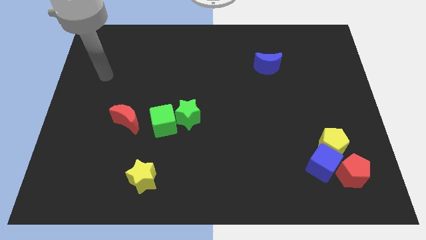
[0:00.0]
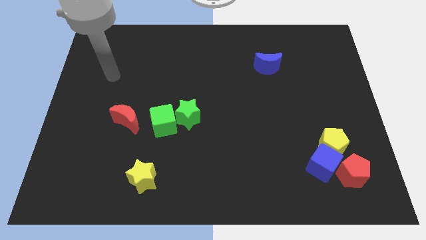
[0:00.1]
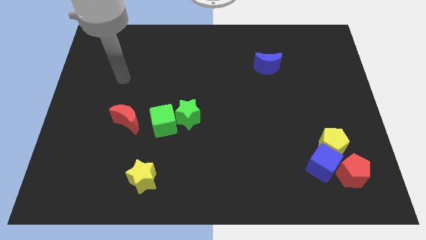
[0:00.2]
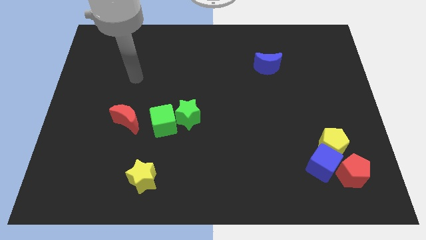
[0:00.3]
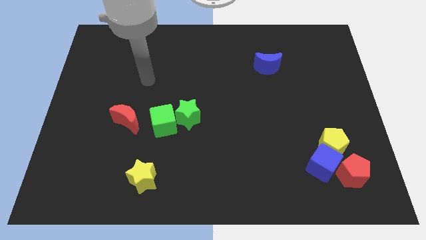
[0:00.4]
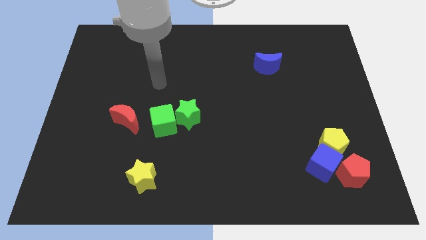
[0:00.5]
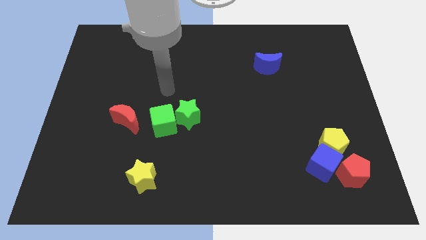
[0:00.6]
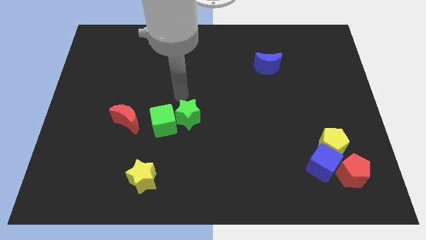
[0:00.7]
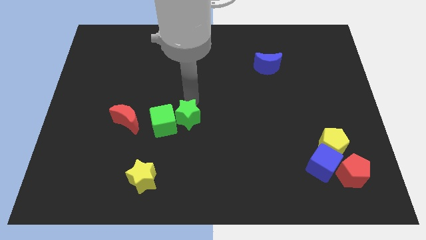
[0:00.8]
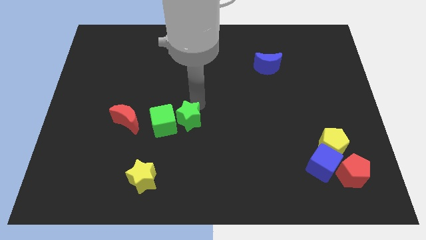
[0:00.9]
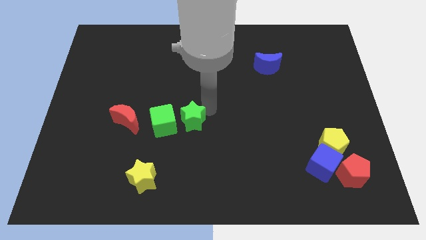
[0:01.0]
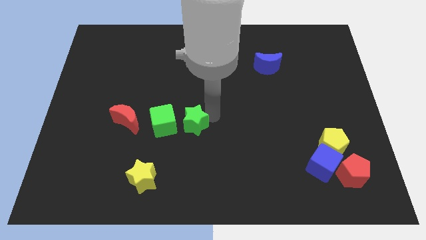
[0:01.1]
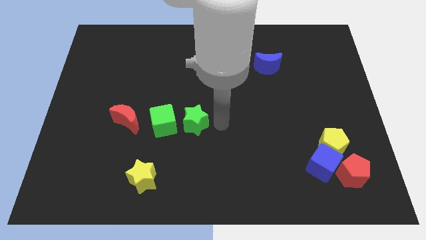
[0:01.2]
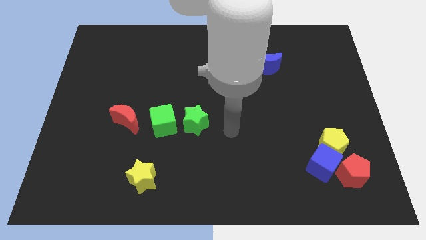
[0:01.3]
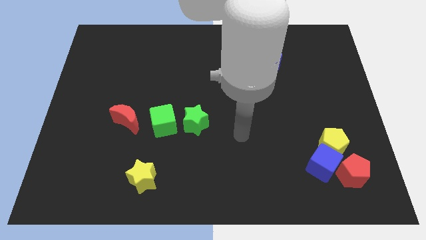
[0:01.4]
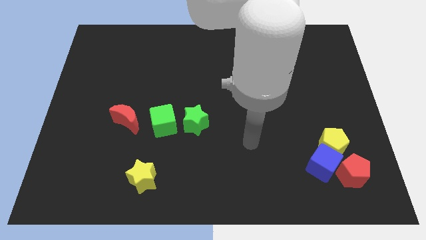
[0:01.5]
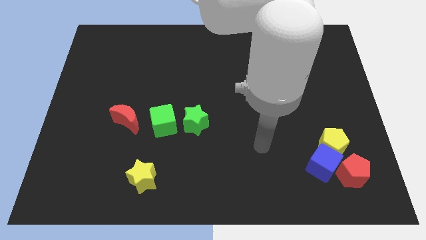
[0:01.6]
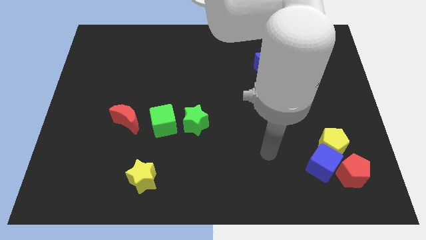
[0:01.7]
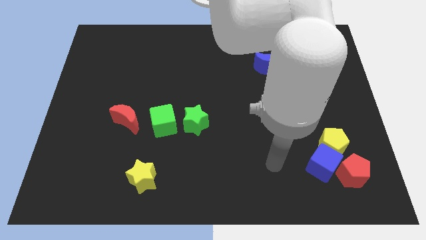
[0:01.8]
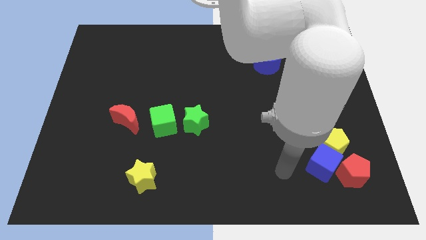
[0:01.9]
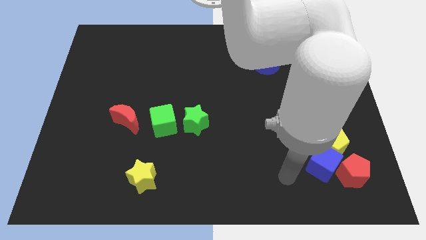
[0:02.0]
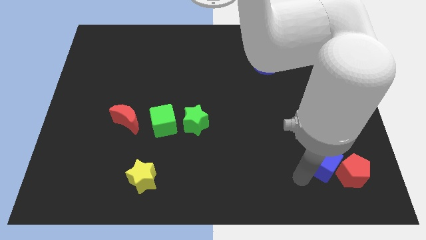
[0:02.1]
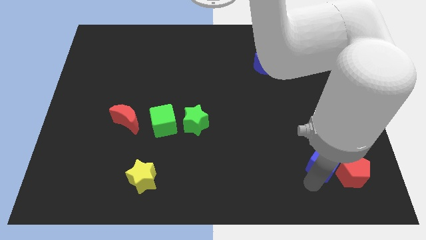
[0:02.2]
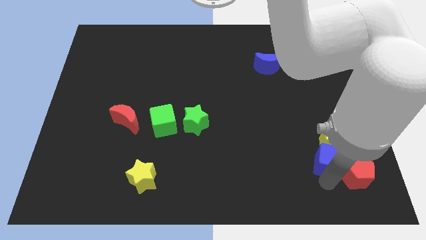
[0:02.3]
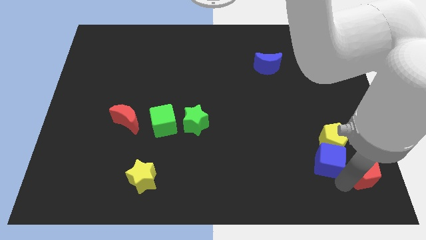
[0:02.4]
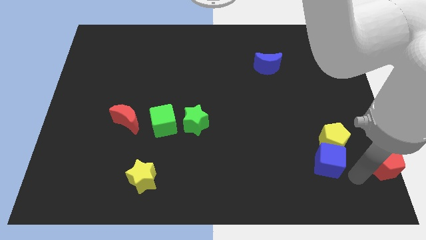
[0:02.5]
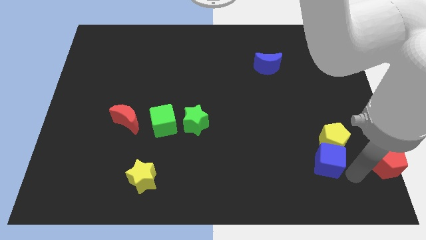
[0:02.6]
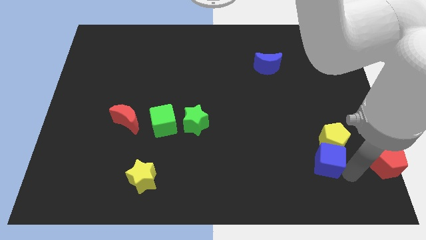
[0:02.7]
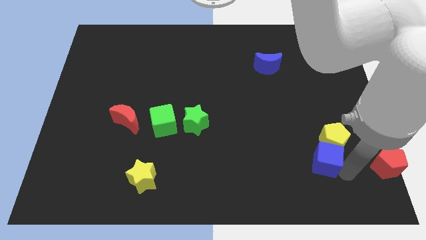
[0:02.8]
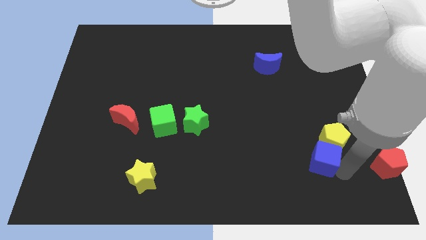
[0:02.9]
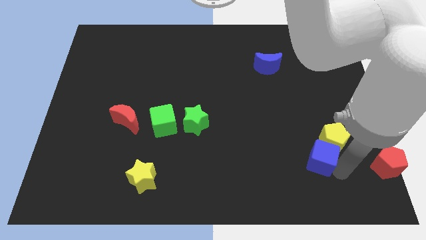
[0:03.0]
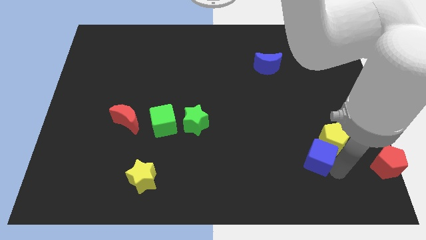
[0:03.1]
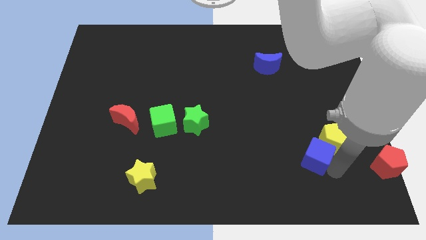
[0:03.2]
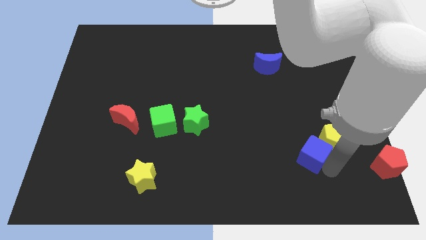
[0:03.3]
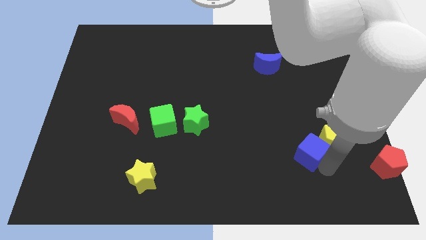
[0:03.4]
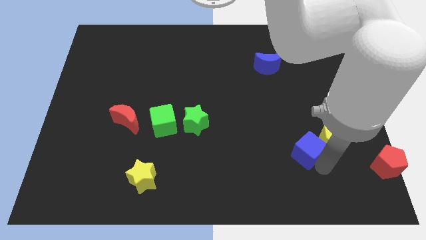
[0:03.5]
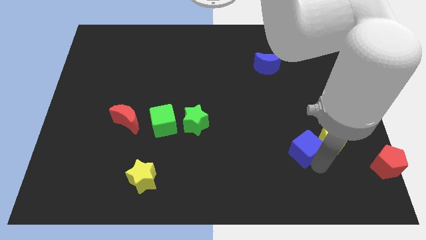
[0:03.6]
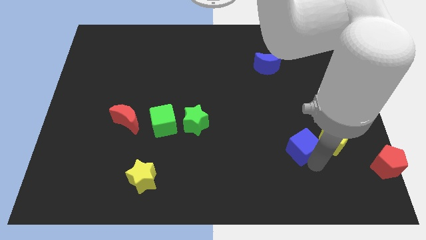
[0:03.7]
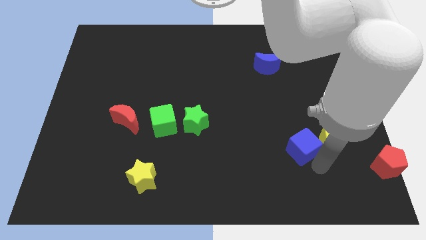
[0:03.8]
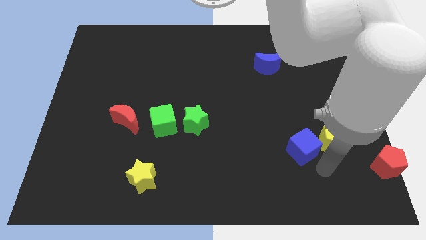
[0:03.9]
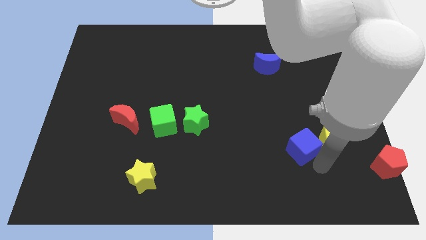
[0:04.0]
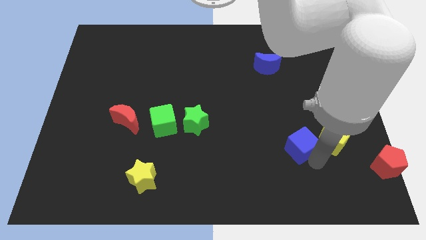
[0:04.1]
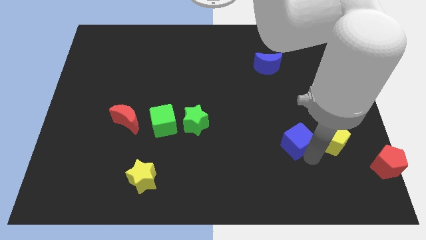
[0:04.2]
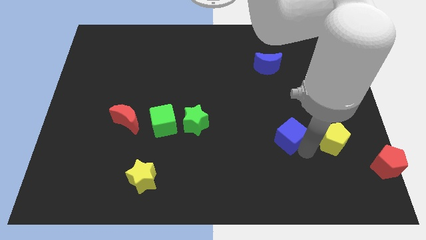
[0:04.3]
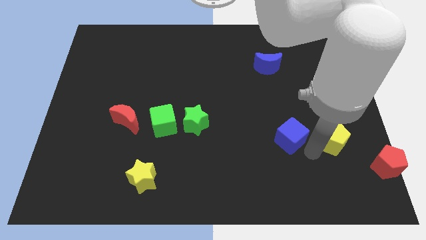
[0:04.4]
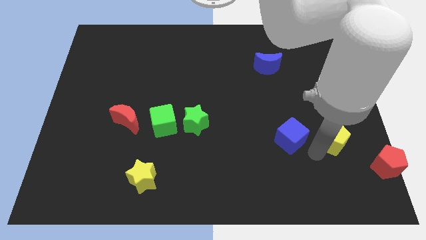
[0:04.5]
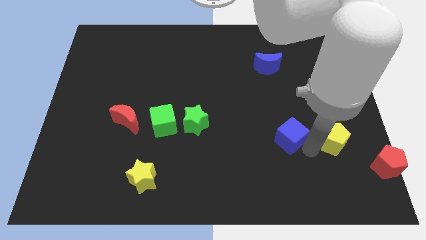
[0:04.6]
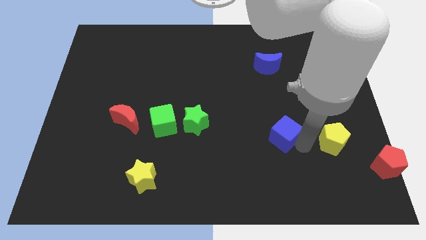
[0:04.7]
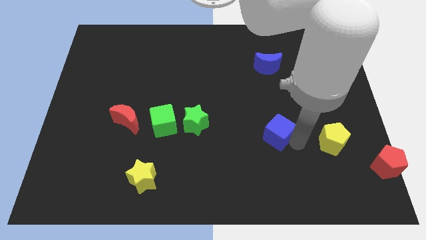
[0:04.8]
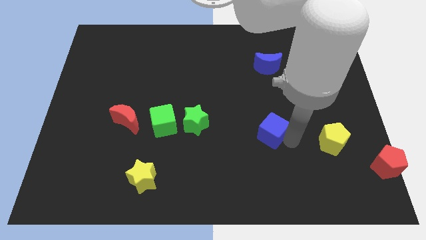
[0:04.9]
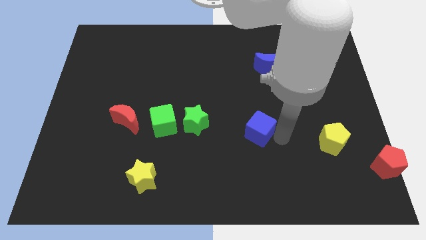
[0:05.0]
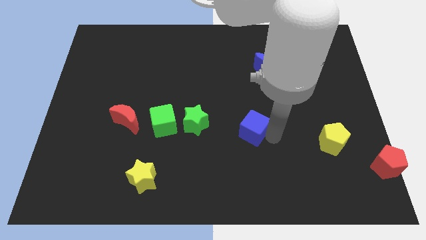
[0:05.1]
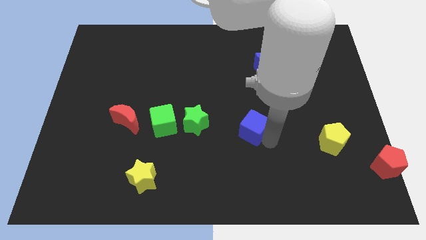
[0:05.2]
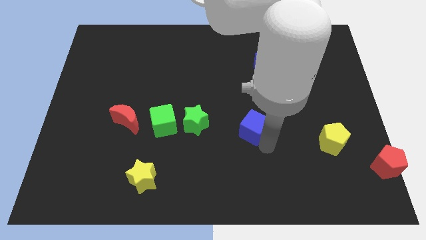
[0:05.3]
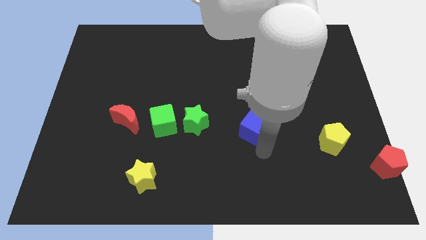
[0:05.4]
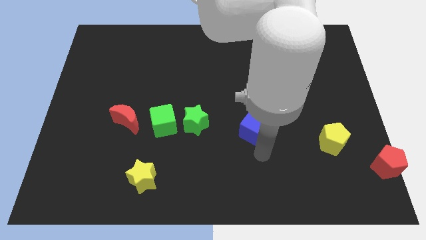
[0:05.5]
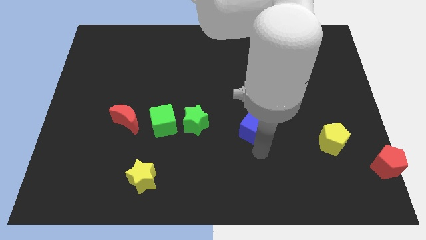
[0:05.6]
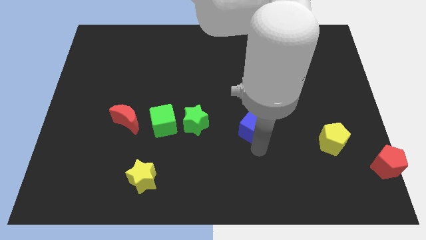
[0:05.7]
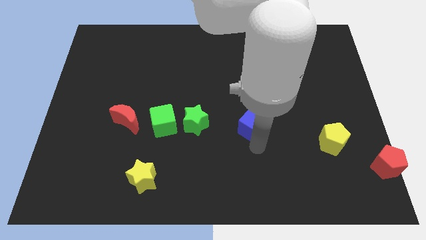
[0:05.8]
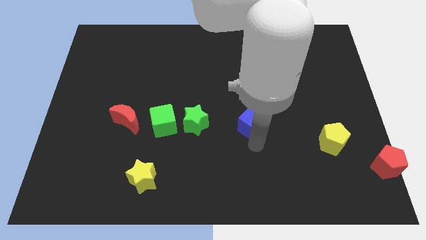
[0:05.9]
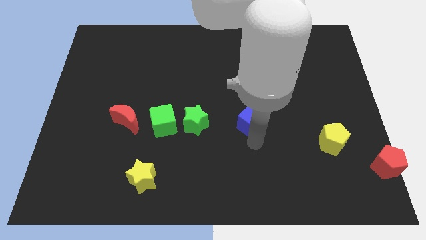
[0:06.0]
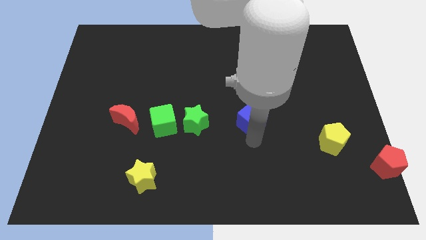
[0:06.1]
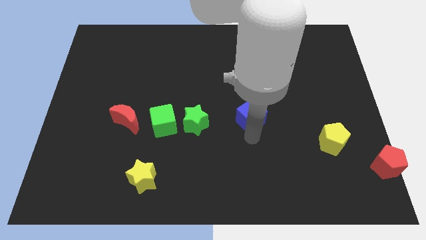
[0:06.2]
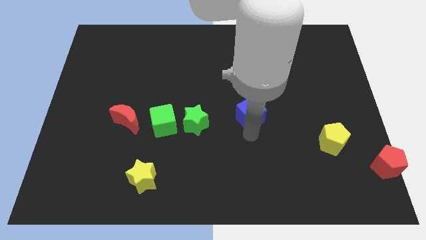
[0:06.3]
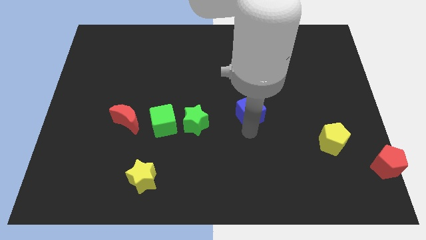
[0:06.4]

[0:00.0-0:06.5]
push the blue cube up and then left

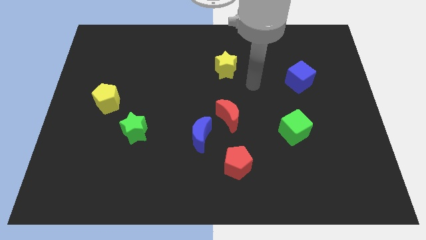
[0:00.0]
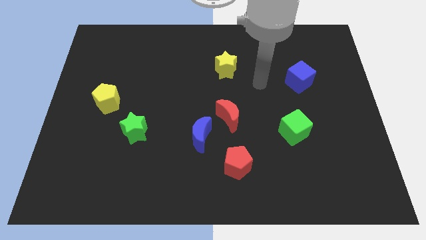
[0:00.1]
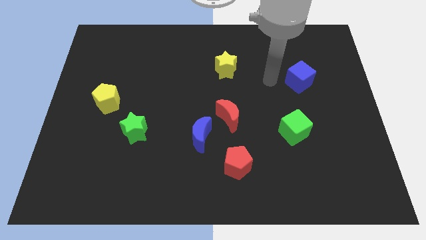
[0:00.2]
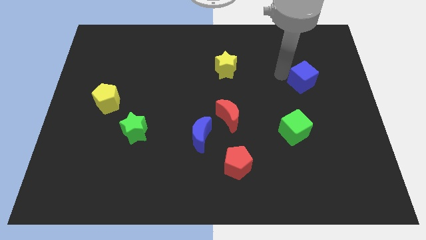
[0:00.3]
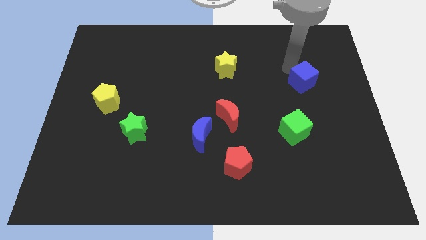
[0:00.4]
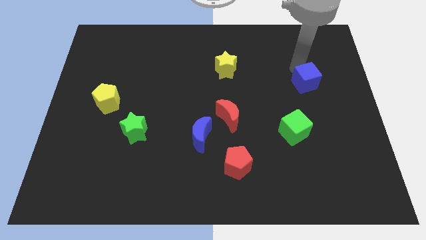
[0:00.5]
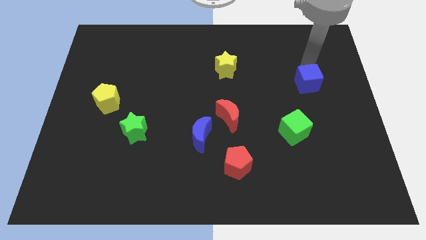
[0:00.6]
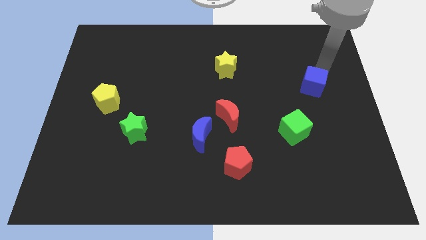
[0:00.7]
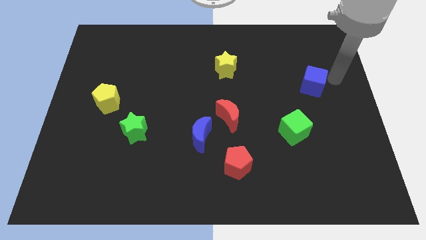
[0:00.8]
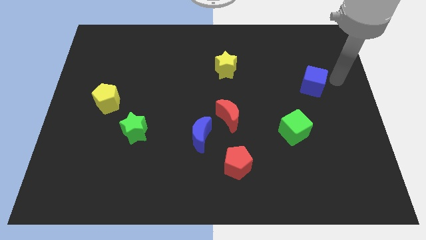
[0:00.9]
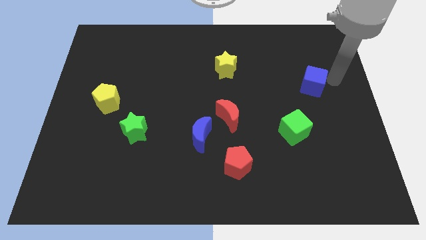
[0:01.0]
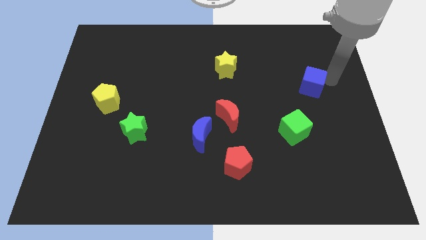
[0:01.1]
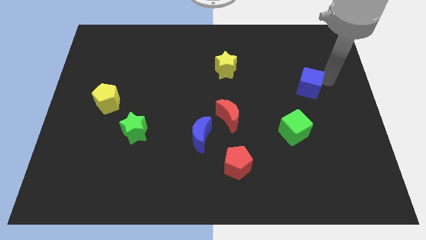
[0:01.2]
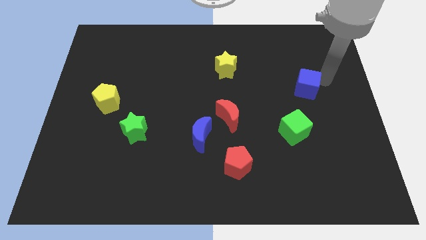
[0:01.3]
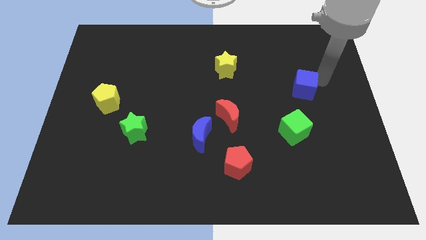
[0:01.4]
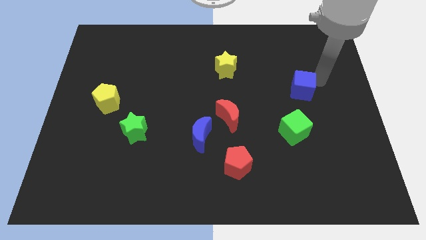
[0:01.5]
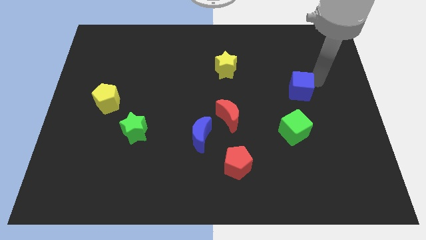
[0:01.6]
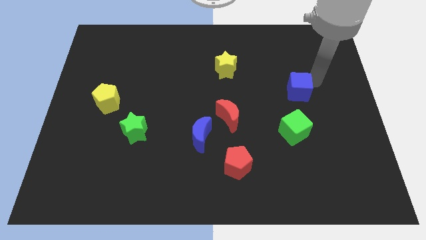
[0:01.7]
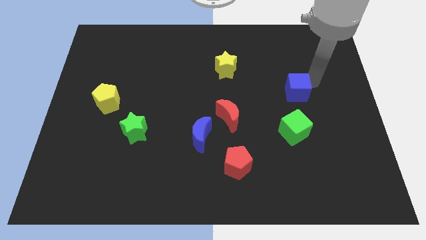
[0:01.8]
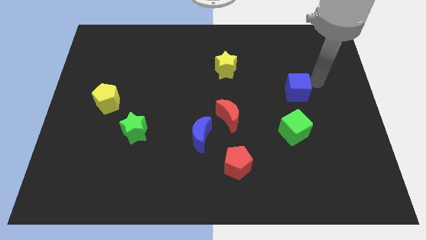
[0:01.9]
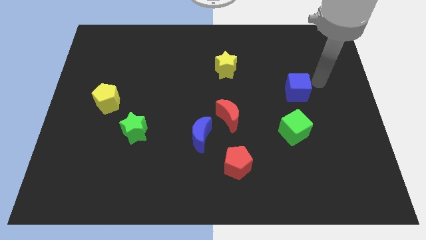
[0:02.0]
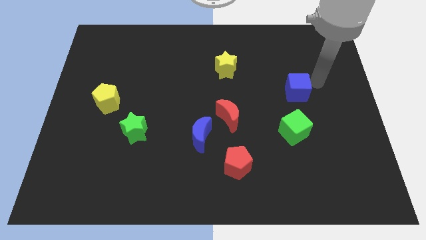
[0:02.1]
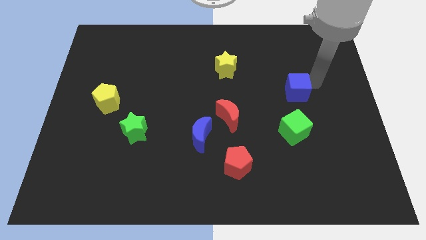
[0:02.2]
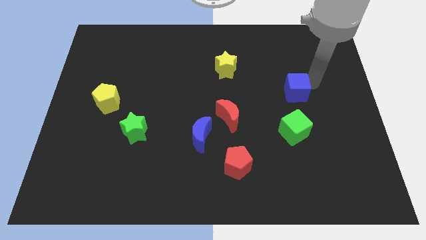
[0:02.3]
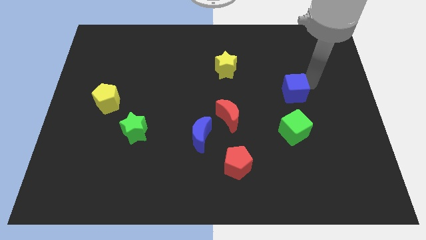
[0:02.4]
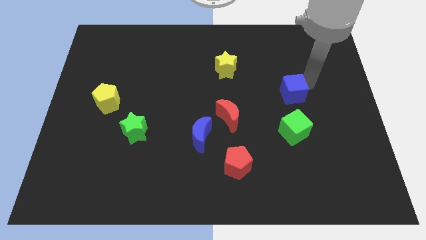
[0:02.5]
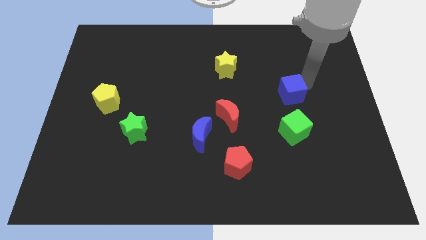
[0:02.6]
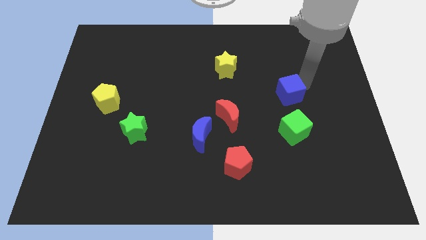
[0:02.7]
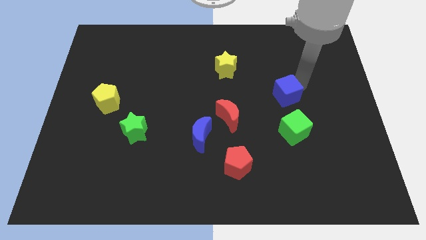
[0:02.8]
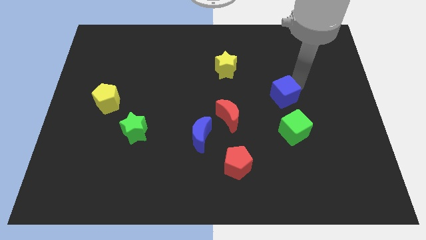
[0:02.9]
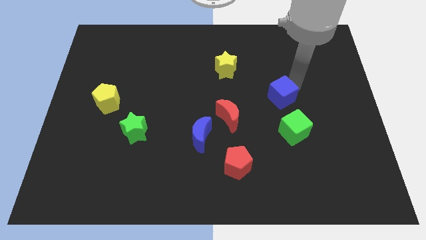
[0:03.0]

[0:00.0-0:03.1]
slightly push the blue cube down and left
